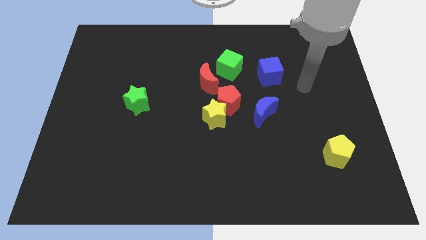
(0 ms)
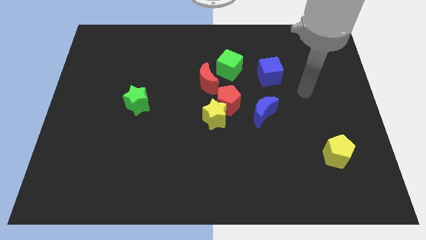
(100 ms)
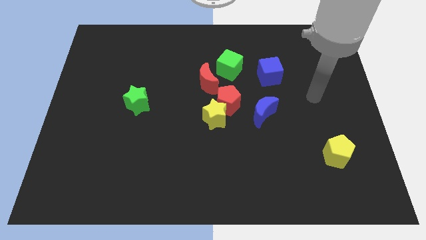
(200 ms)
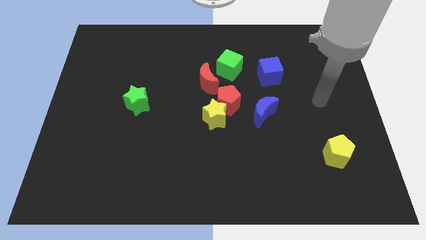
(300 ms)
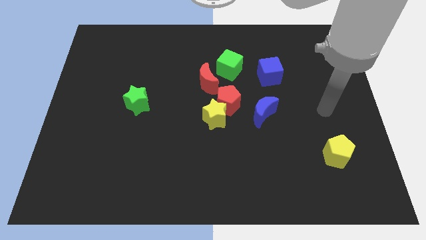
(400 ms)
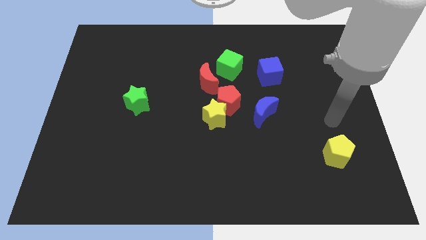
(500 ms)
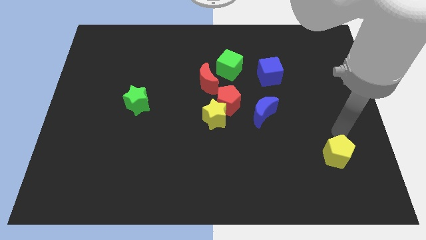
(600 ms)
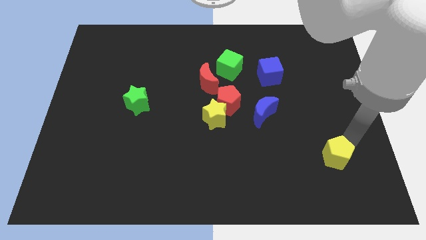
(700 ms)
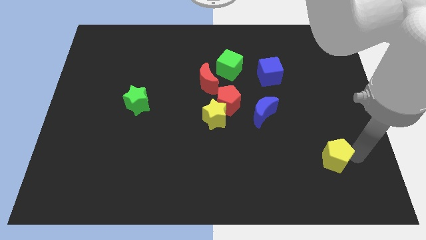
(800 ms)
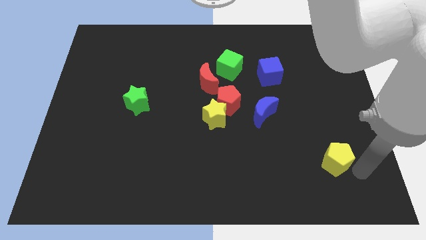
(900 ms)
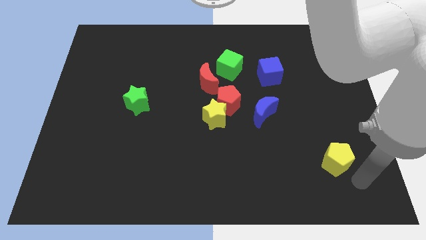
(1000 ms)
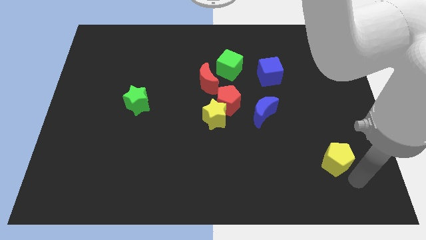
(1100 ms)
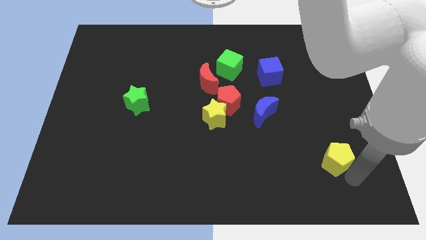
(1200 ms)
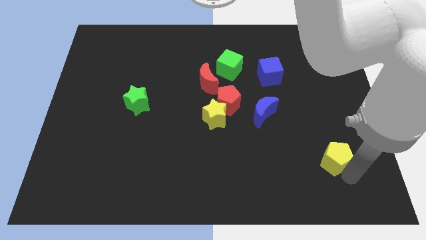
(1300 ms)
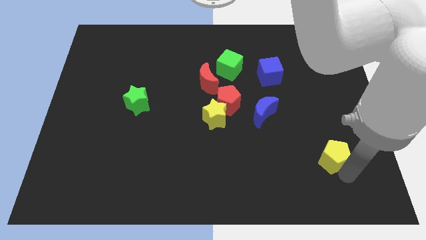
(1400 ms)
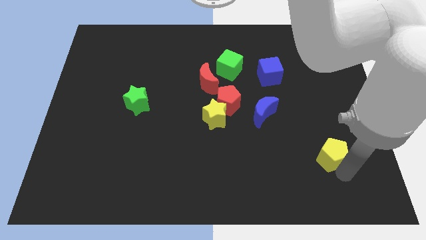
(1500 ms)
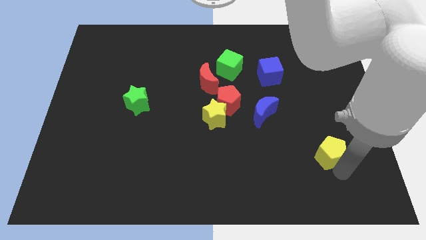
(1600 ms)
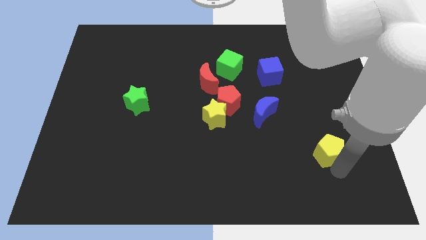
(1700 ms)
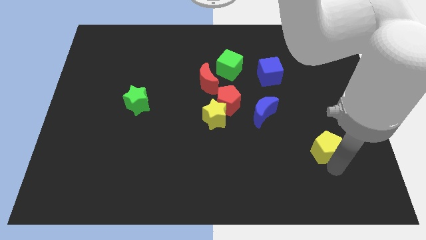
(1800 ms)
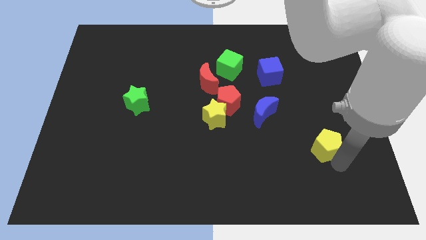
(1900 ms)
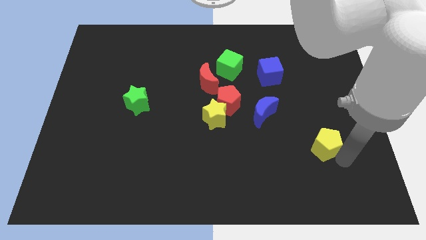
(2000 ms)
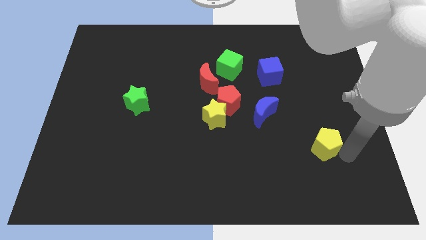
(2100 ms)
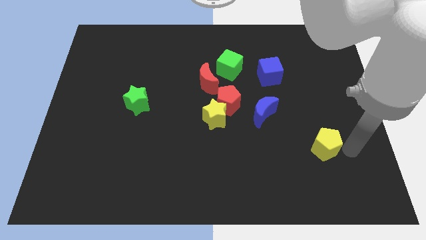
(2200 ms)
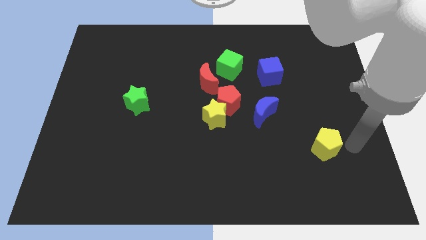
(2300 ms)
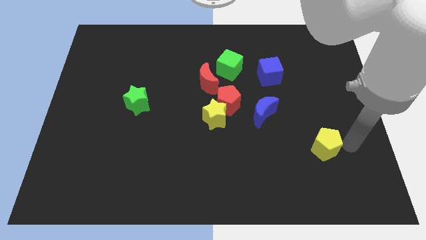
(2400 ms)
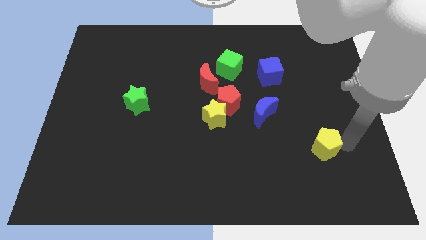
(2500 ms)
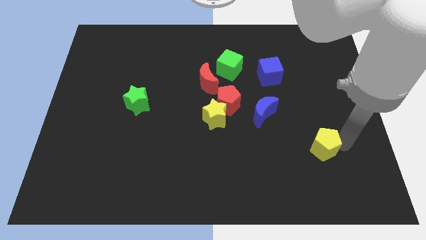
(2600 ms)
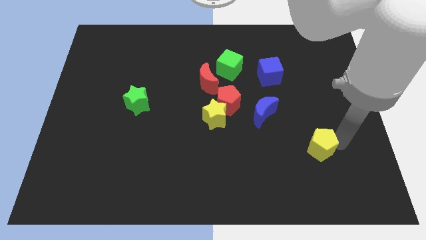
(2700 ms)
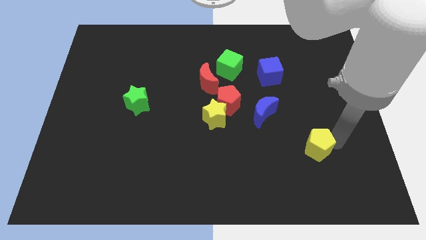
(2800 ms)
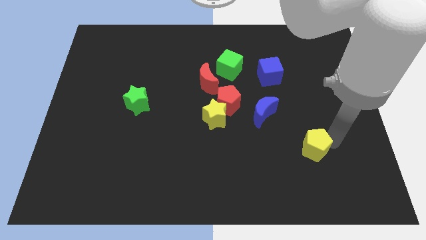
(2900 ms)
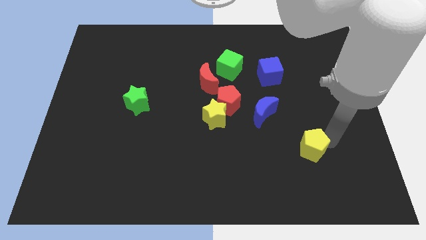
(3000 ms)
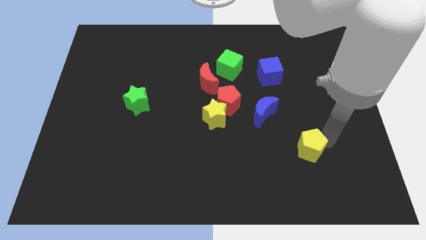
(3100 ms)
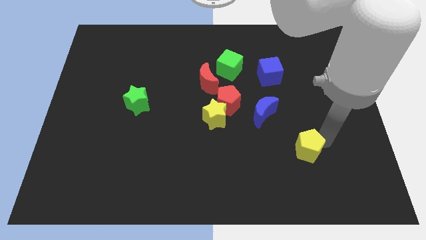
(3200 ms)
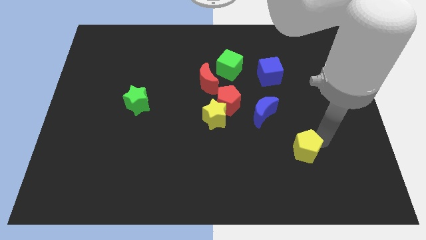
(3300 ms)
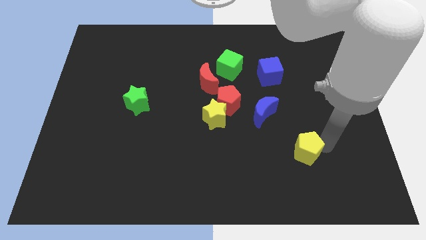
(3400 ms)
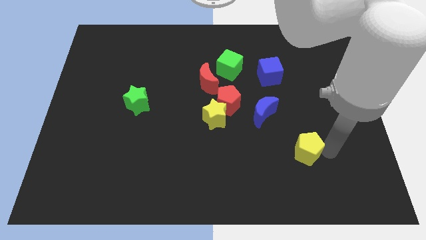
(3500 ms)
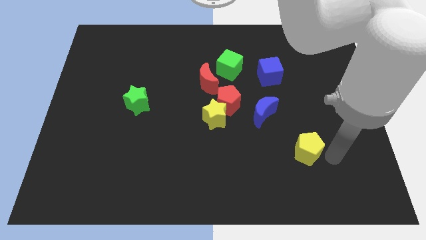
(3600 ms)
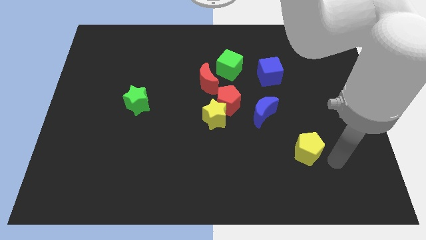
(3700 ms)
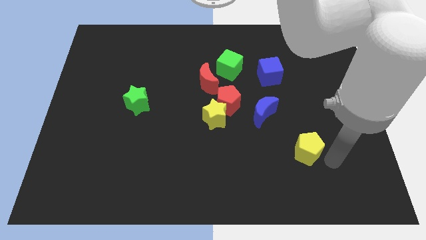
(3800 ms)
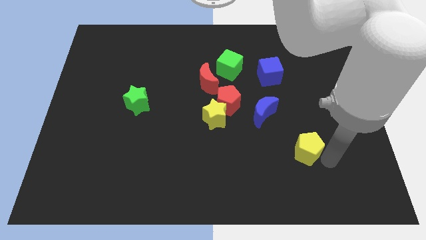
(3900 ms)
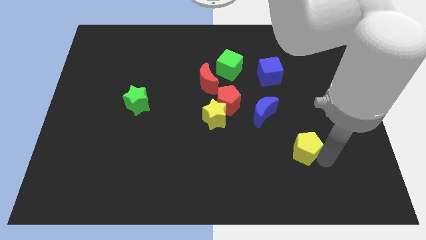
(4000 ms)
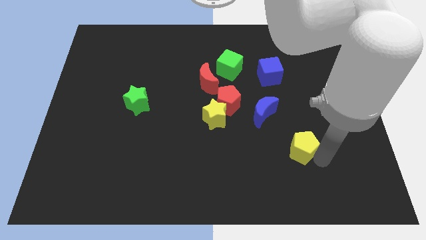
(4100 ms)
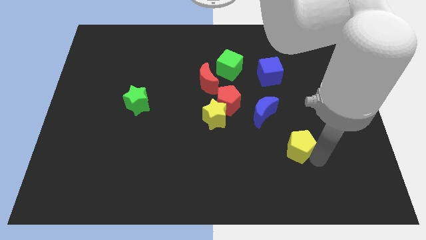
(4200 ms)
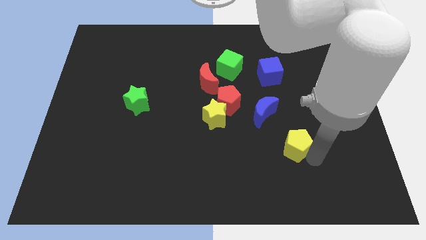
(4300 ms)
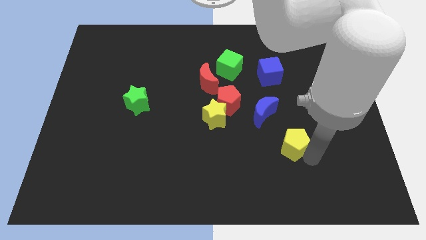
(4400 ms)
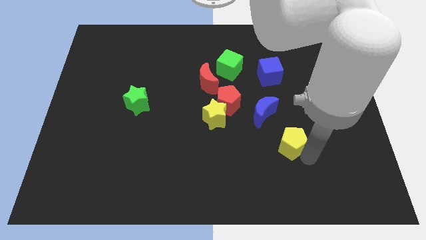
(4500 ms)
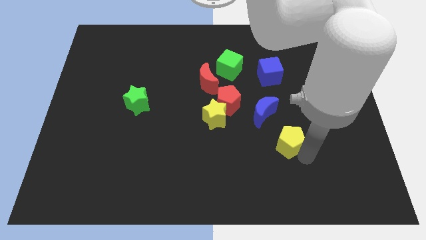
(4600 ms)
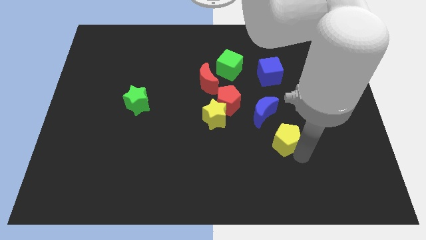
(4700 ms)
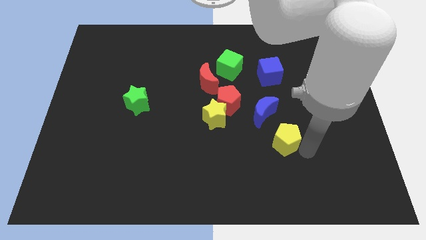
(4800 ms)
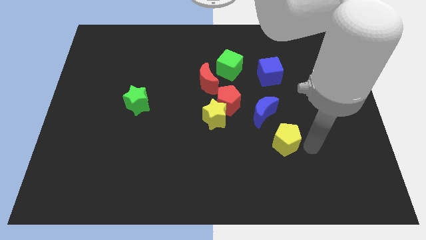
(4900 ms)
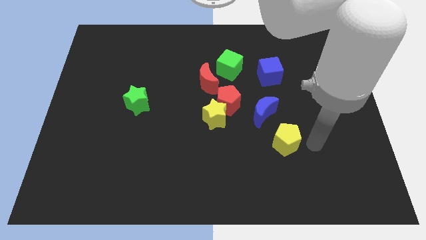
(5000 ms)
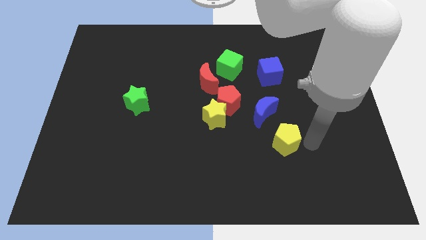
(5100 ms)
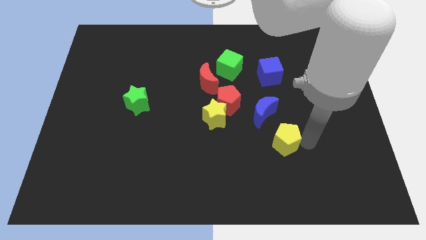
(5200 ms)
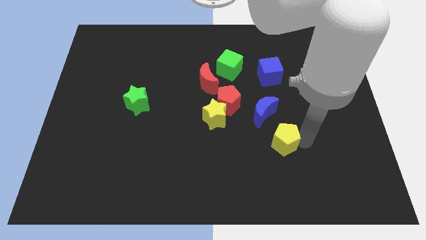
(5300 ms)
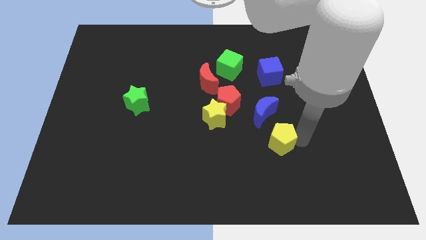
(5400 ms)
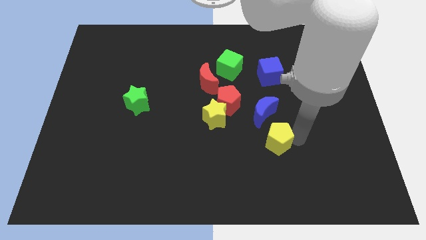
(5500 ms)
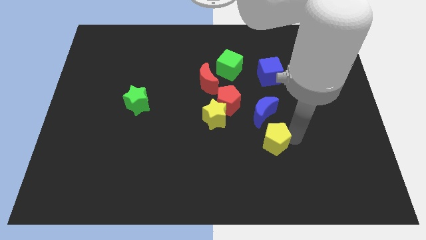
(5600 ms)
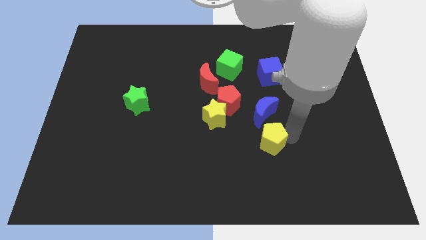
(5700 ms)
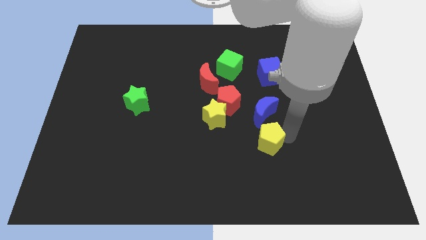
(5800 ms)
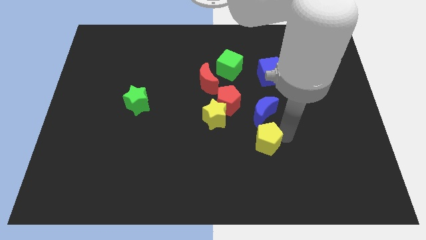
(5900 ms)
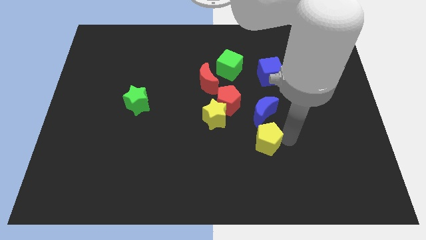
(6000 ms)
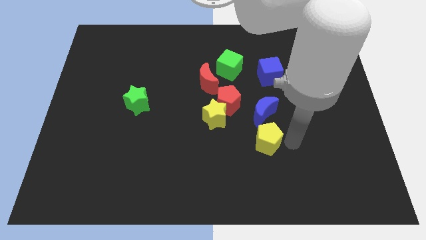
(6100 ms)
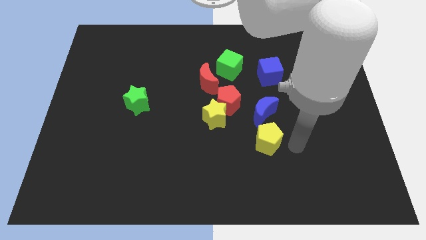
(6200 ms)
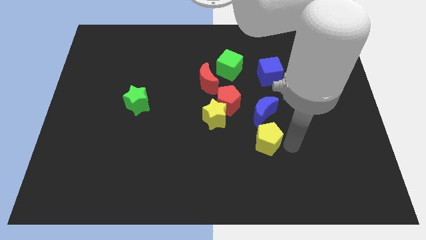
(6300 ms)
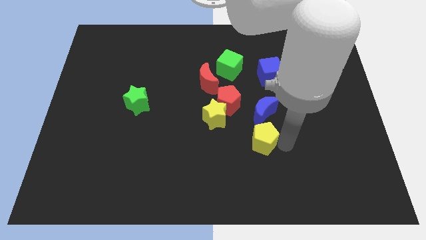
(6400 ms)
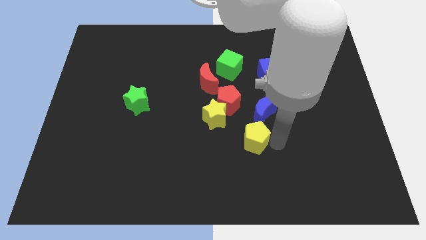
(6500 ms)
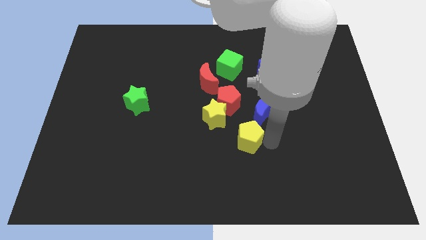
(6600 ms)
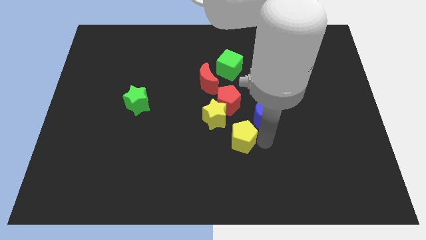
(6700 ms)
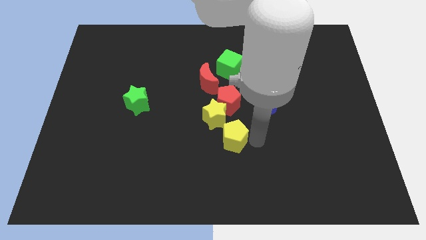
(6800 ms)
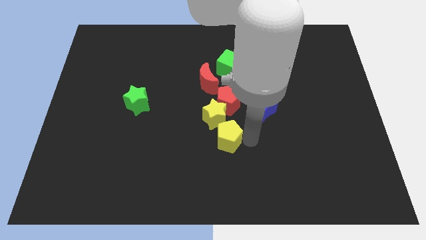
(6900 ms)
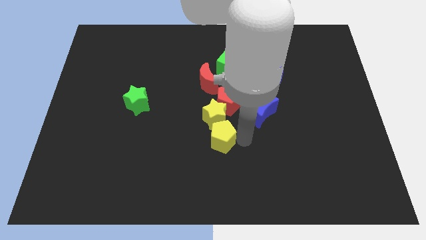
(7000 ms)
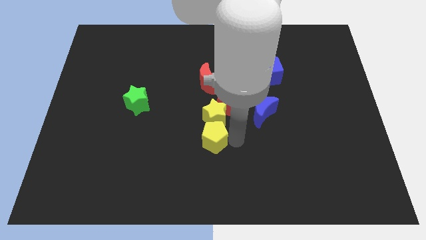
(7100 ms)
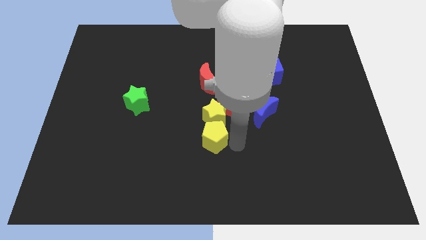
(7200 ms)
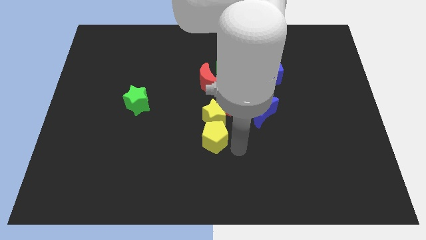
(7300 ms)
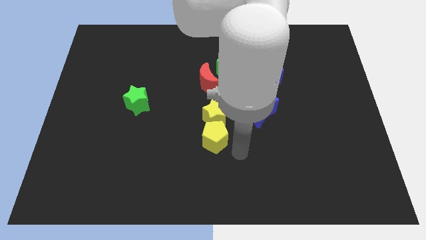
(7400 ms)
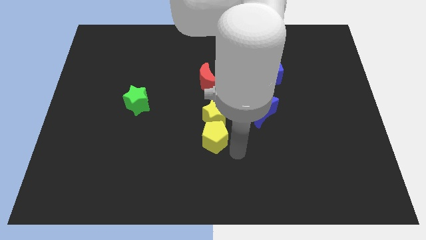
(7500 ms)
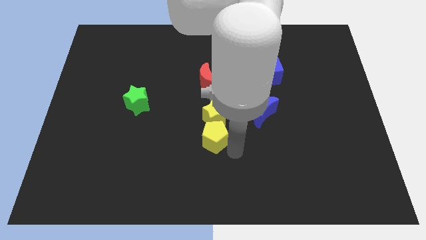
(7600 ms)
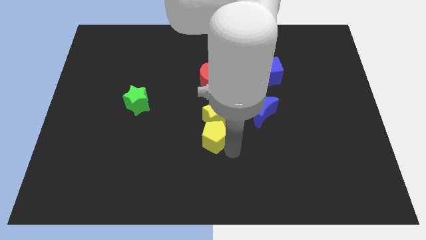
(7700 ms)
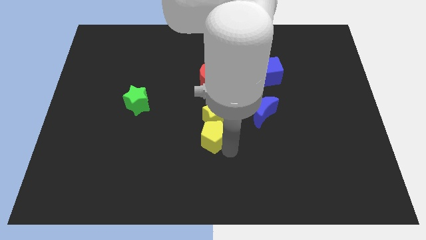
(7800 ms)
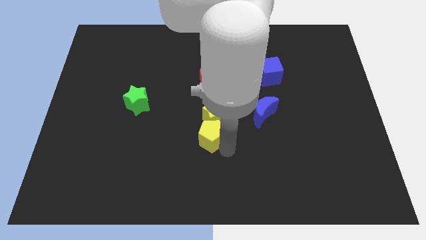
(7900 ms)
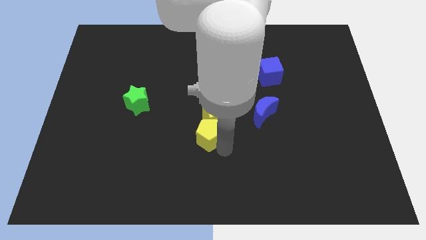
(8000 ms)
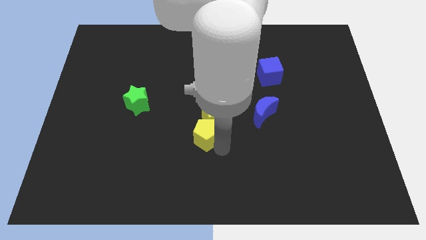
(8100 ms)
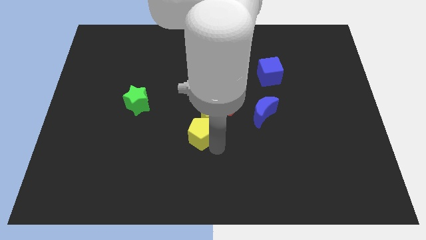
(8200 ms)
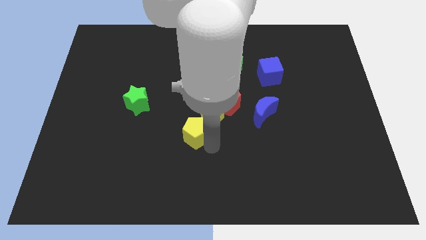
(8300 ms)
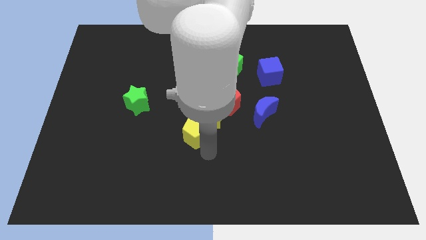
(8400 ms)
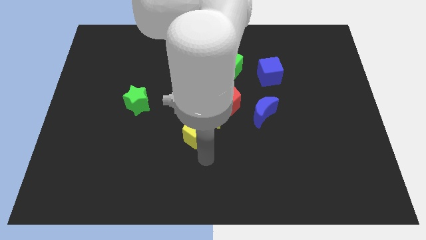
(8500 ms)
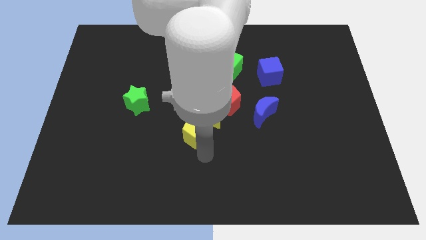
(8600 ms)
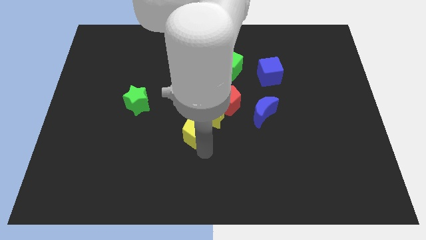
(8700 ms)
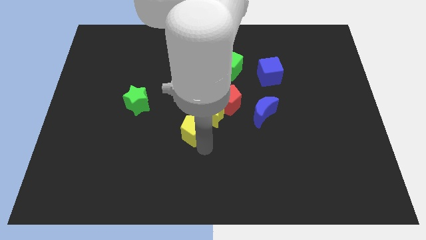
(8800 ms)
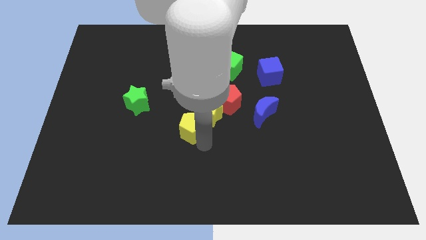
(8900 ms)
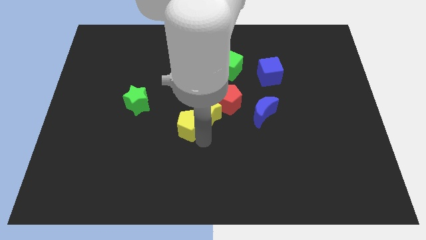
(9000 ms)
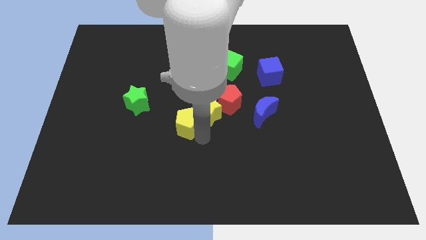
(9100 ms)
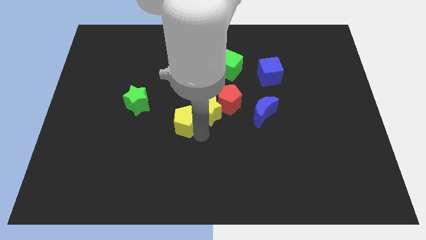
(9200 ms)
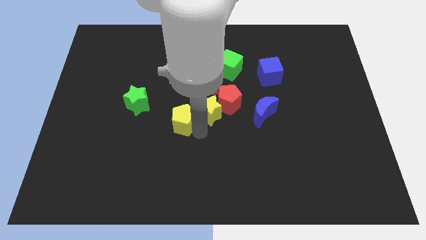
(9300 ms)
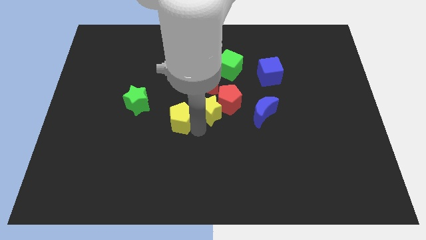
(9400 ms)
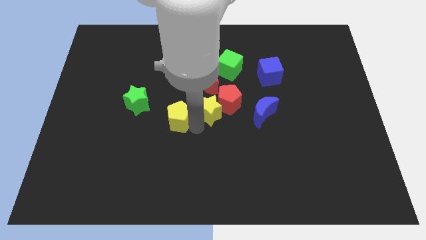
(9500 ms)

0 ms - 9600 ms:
slide the yellow pentagon to the right of the green star
